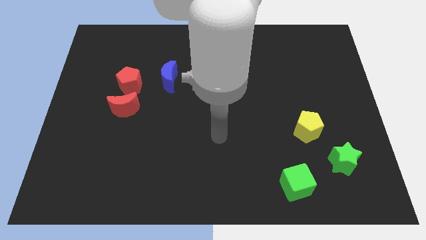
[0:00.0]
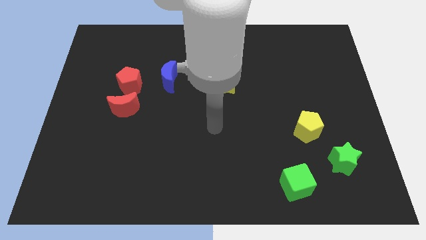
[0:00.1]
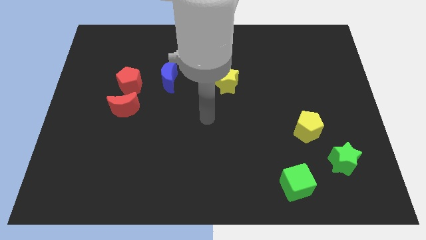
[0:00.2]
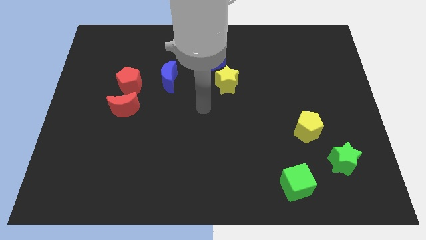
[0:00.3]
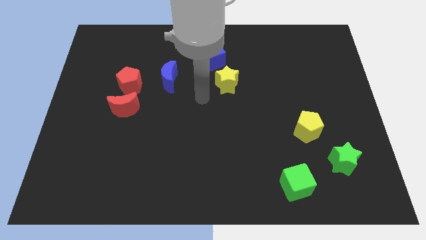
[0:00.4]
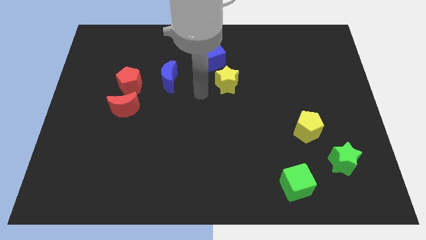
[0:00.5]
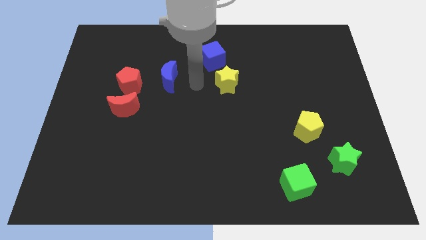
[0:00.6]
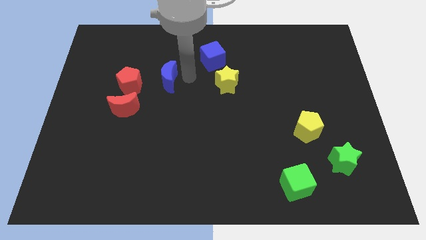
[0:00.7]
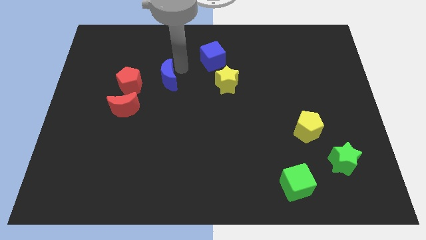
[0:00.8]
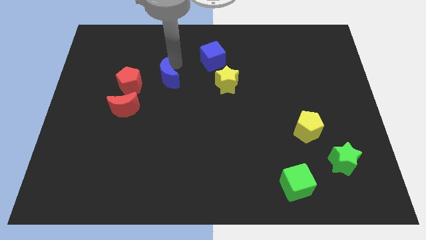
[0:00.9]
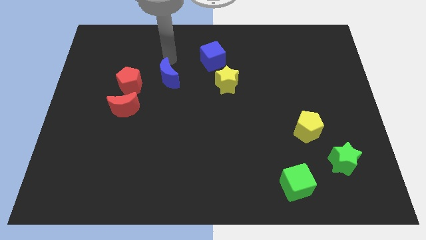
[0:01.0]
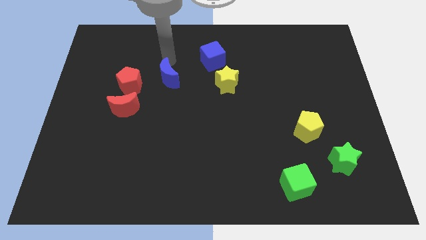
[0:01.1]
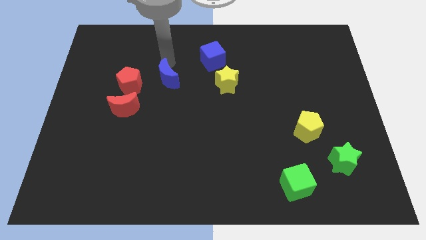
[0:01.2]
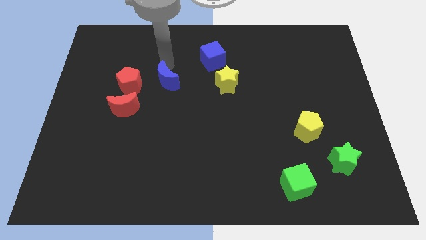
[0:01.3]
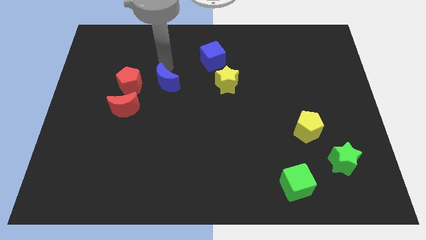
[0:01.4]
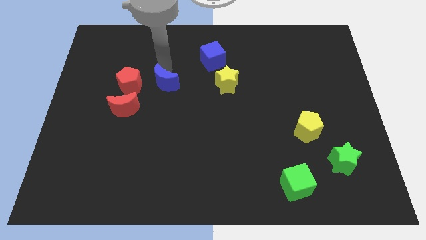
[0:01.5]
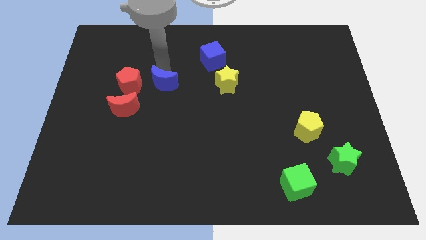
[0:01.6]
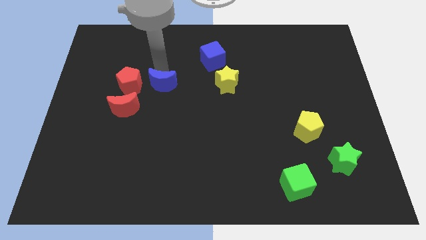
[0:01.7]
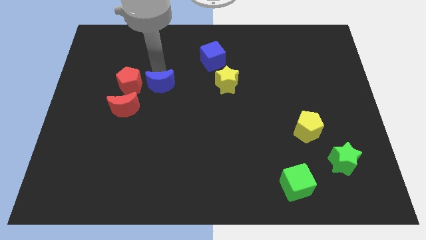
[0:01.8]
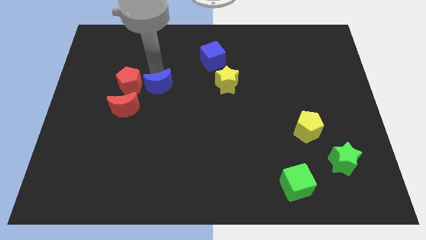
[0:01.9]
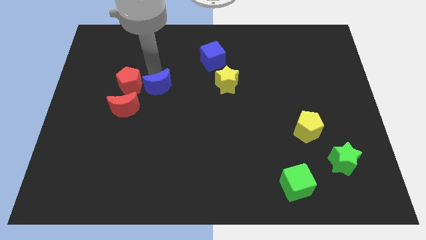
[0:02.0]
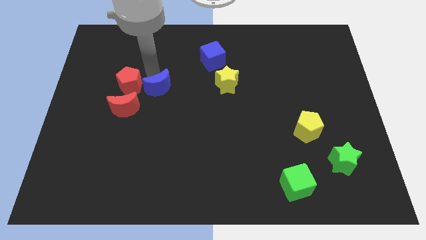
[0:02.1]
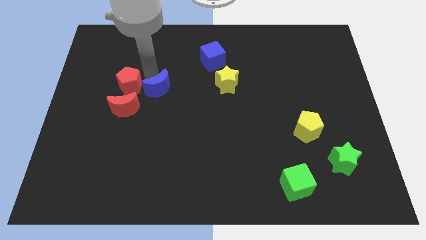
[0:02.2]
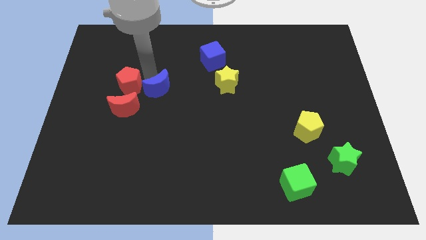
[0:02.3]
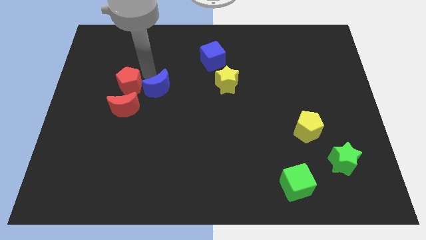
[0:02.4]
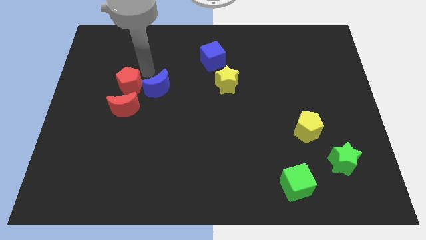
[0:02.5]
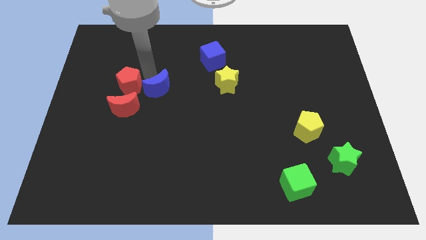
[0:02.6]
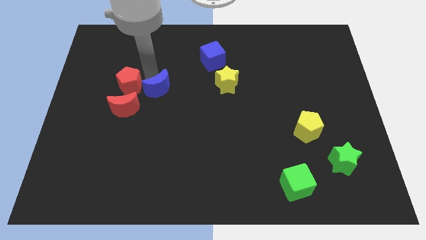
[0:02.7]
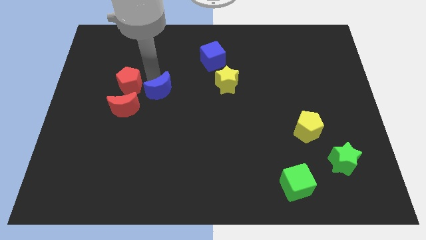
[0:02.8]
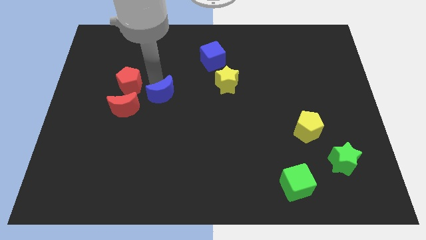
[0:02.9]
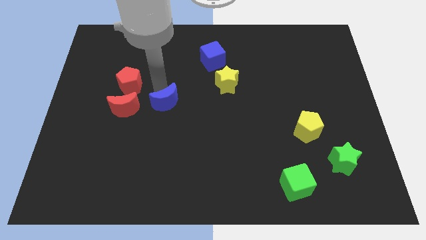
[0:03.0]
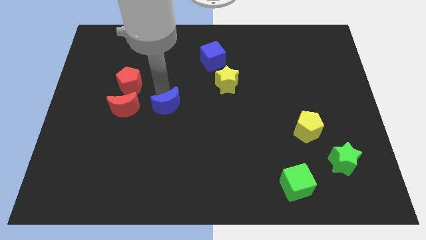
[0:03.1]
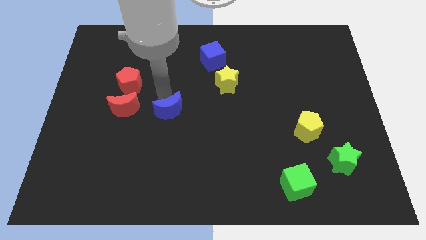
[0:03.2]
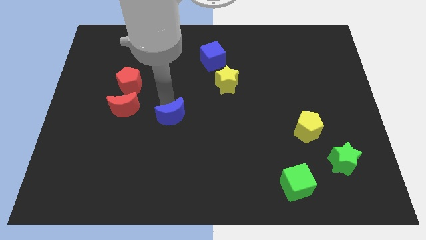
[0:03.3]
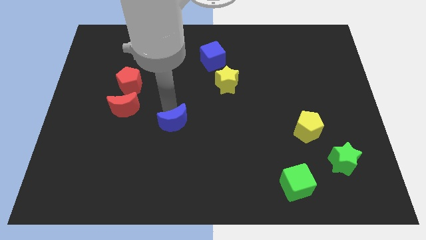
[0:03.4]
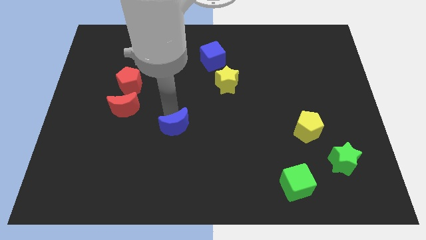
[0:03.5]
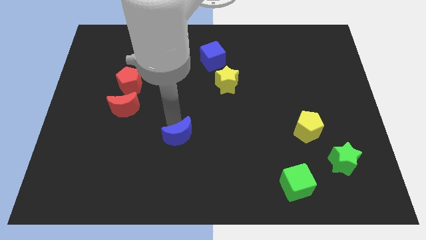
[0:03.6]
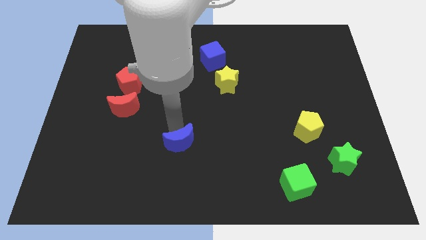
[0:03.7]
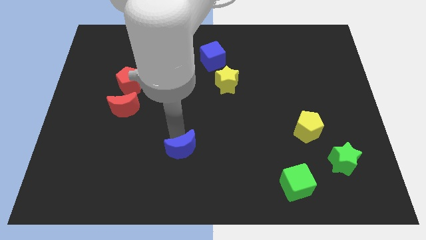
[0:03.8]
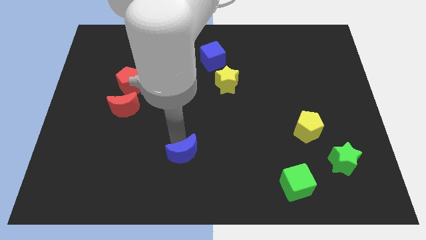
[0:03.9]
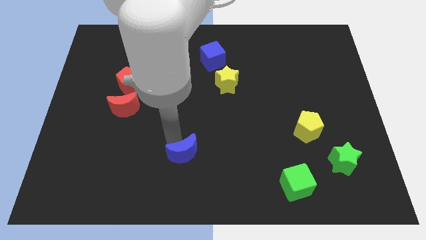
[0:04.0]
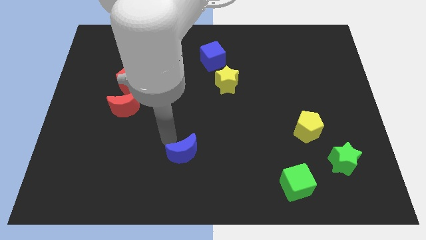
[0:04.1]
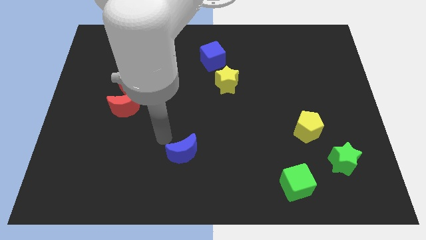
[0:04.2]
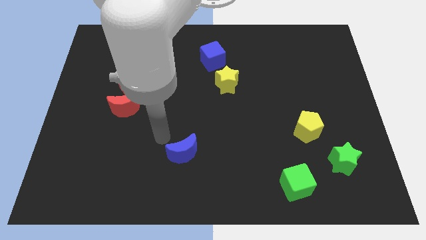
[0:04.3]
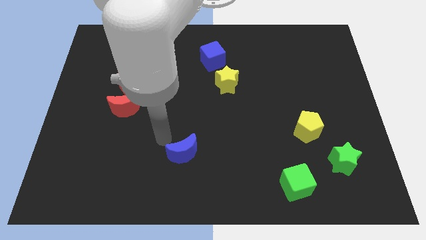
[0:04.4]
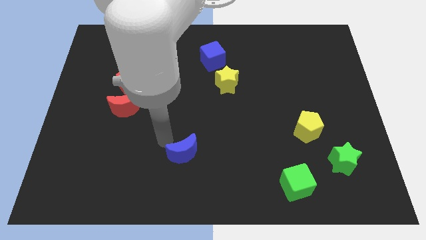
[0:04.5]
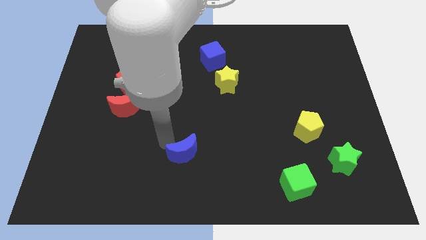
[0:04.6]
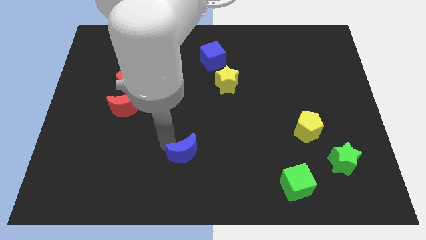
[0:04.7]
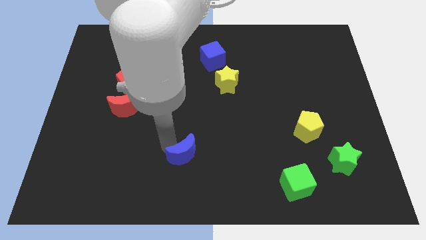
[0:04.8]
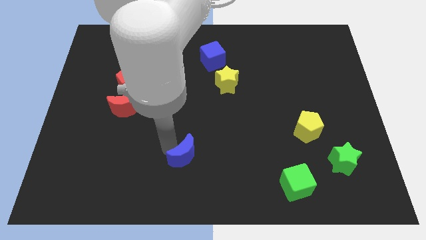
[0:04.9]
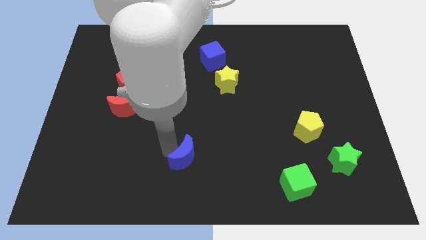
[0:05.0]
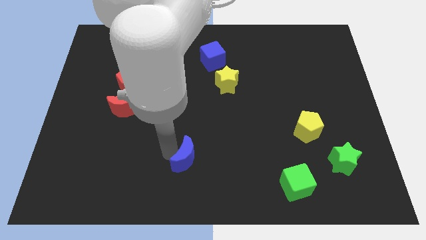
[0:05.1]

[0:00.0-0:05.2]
move the blue moon to the bottom side

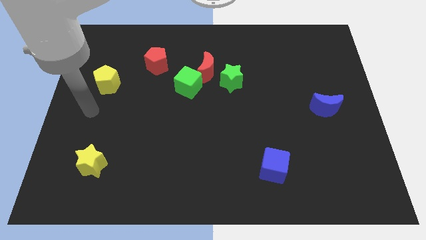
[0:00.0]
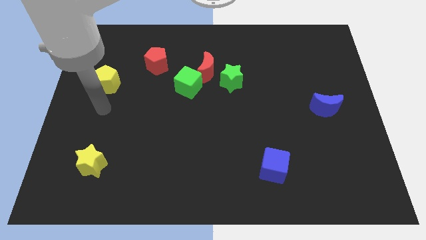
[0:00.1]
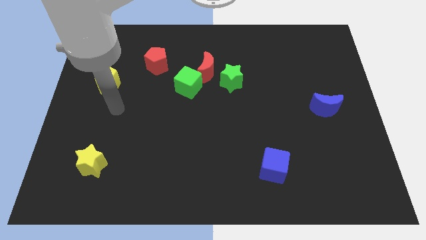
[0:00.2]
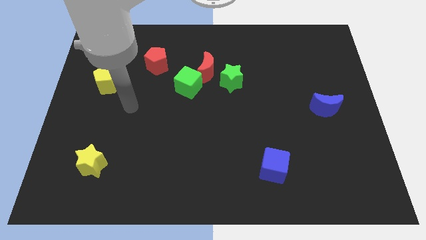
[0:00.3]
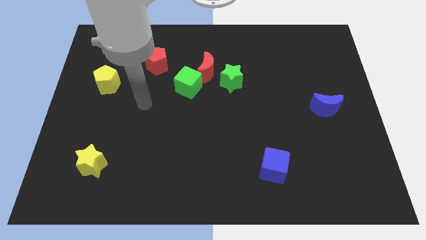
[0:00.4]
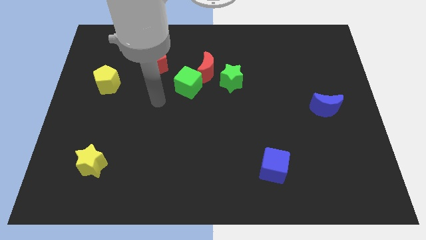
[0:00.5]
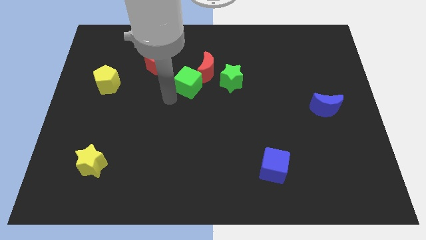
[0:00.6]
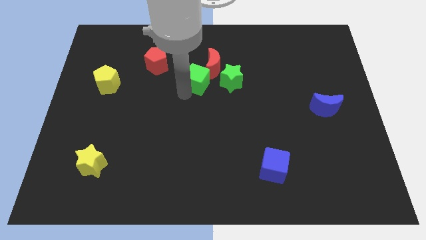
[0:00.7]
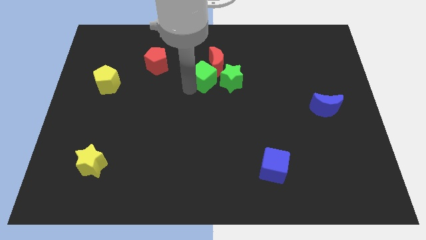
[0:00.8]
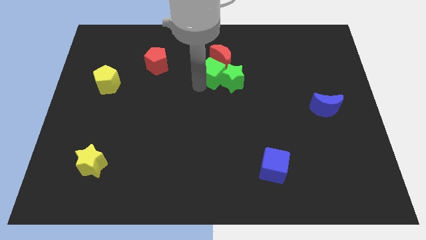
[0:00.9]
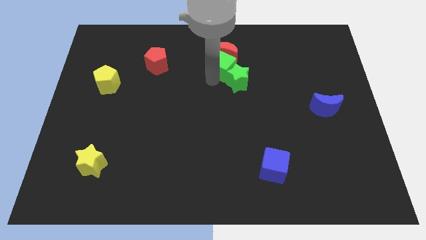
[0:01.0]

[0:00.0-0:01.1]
move the red moon to the top side

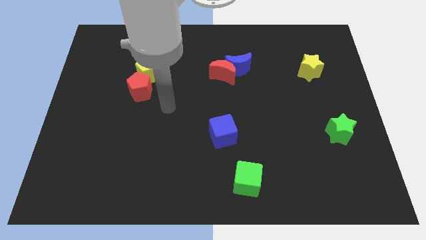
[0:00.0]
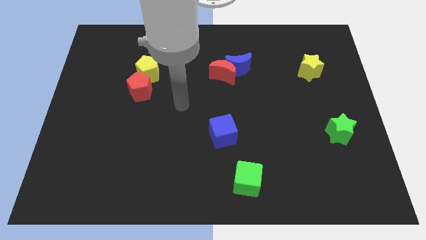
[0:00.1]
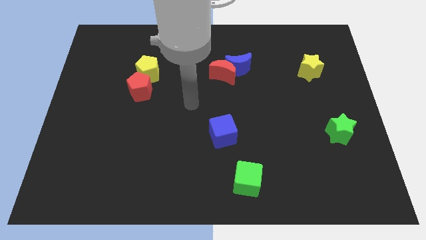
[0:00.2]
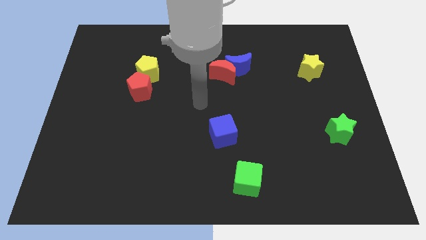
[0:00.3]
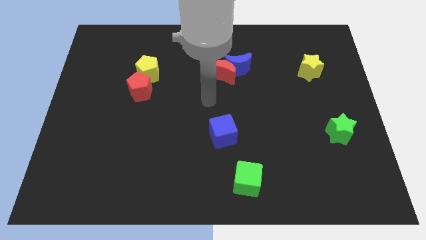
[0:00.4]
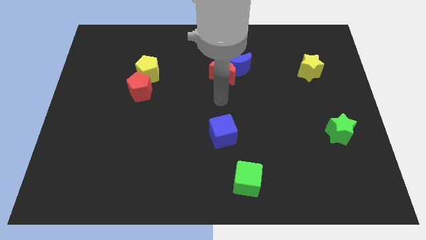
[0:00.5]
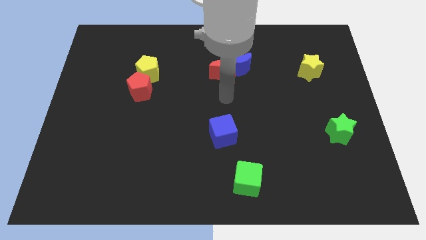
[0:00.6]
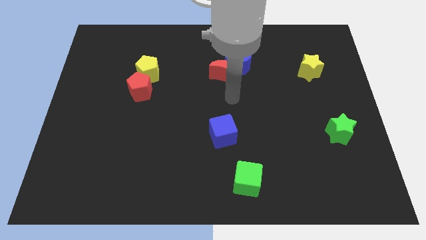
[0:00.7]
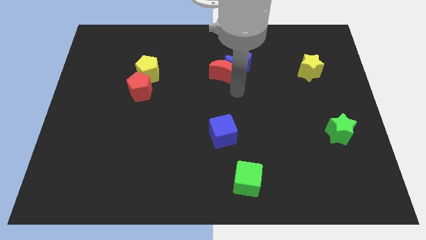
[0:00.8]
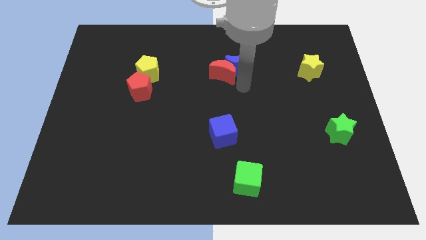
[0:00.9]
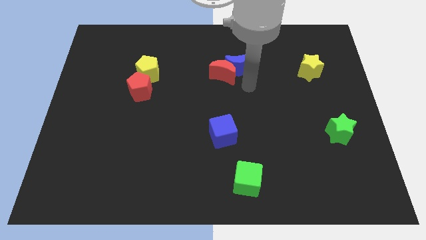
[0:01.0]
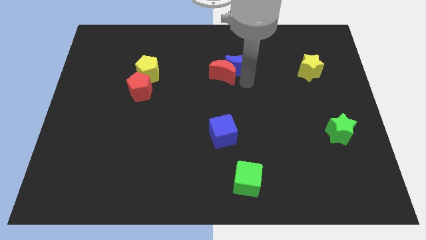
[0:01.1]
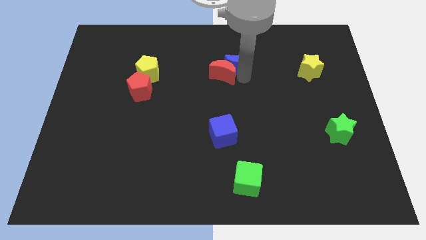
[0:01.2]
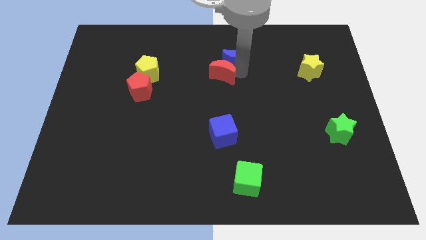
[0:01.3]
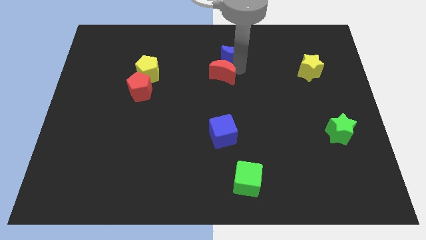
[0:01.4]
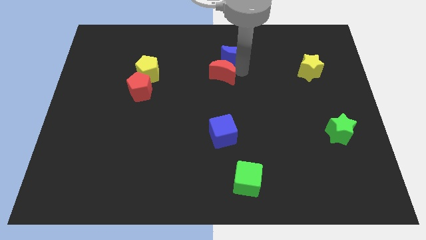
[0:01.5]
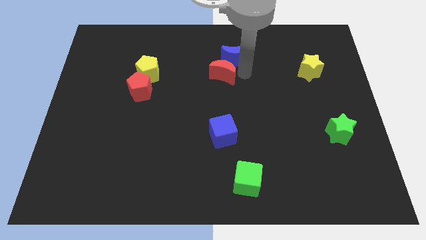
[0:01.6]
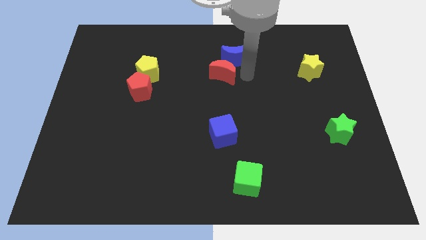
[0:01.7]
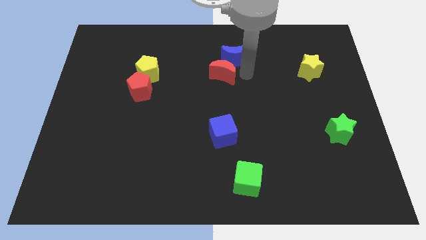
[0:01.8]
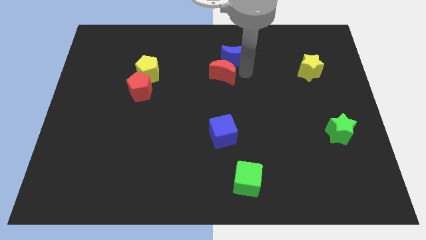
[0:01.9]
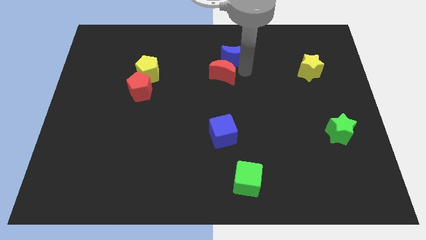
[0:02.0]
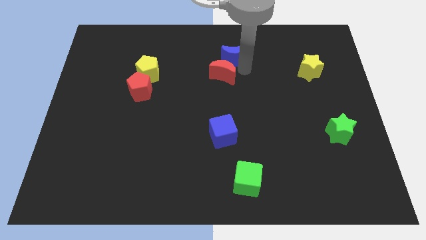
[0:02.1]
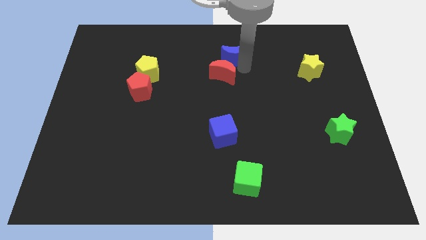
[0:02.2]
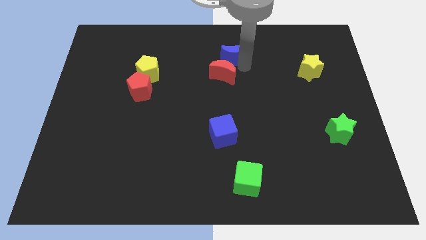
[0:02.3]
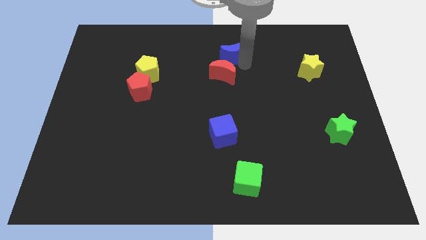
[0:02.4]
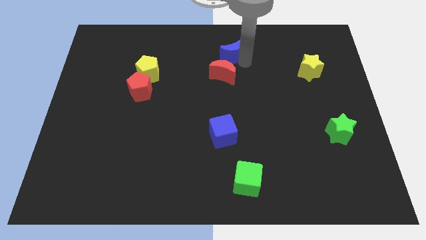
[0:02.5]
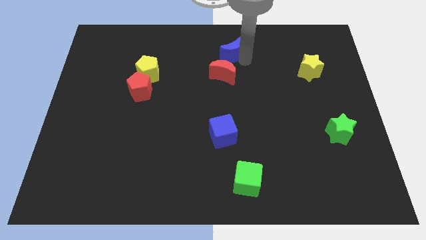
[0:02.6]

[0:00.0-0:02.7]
put the blue moon to the towards your base
